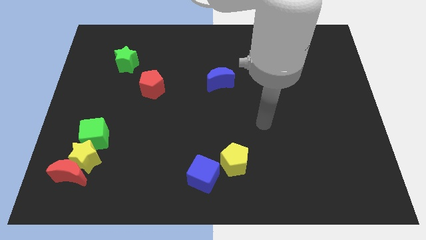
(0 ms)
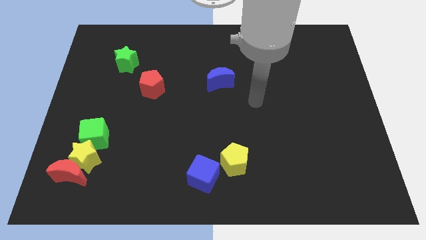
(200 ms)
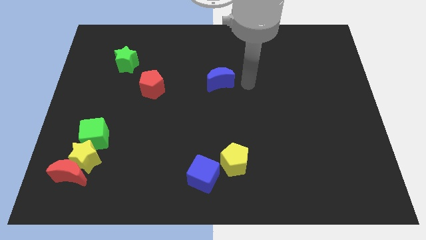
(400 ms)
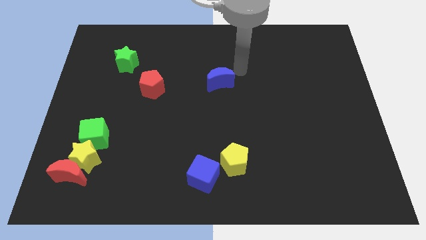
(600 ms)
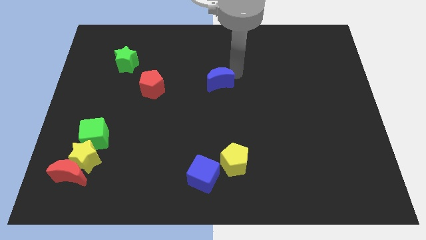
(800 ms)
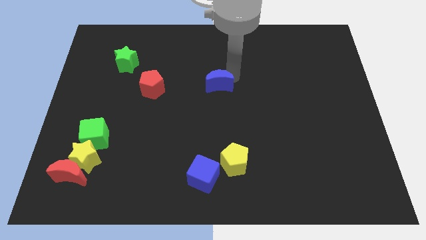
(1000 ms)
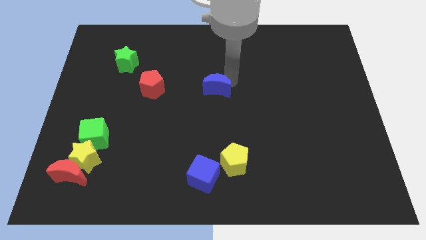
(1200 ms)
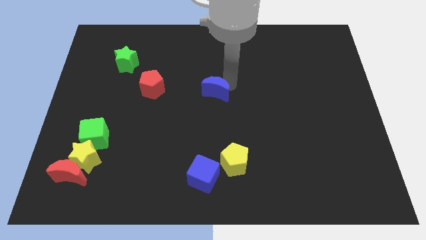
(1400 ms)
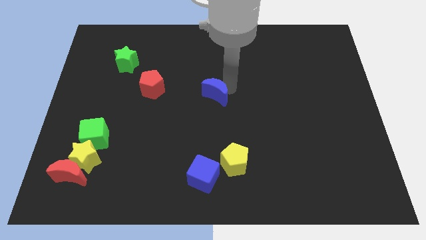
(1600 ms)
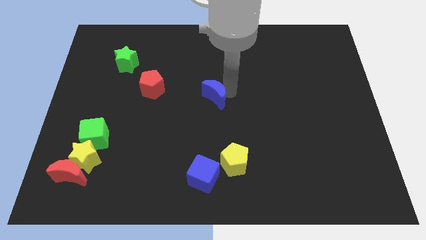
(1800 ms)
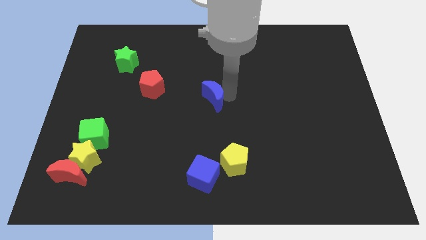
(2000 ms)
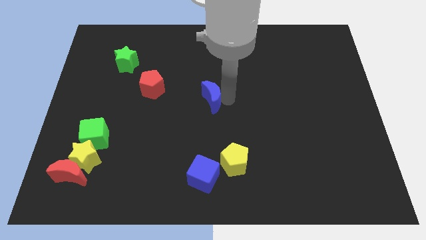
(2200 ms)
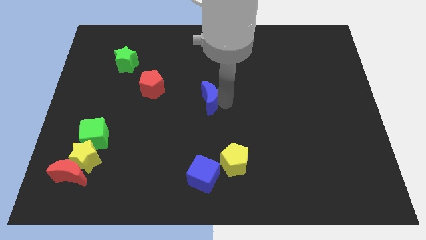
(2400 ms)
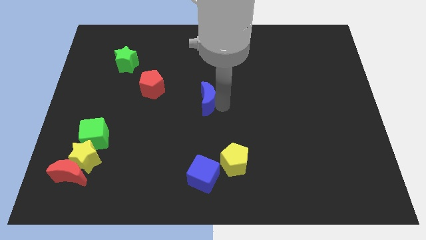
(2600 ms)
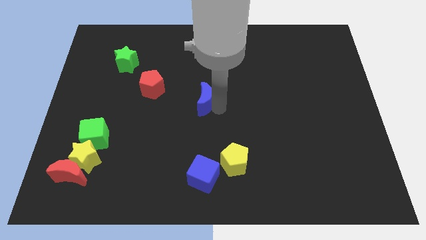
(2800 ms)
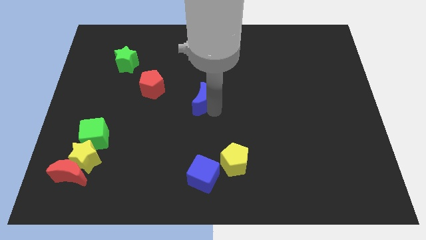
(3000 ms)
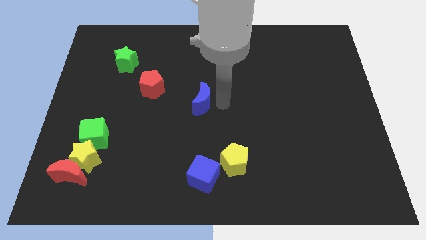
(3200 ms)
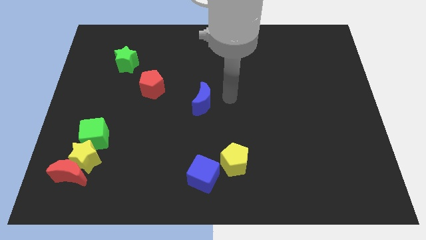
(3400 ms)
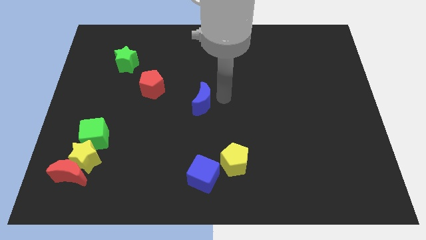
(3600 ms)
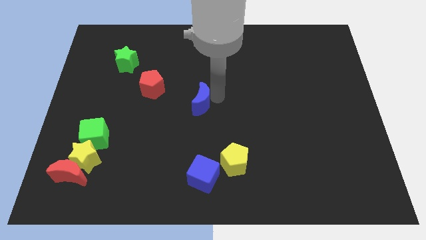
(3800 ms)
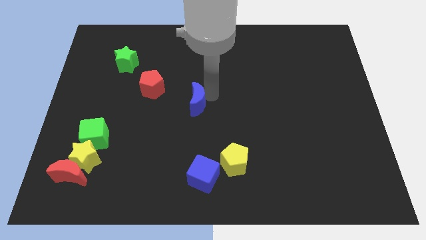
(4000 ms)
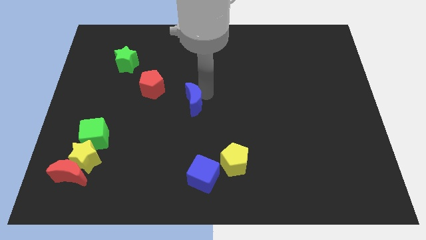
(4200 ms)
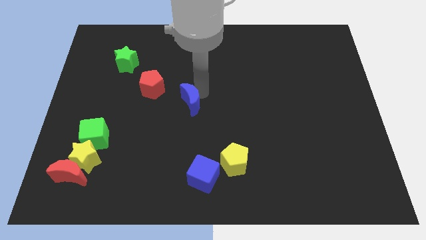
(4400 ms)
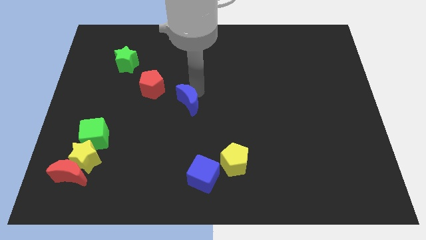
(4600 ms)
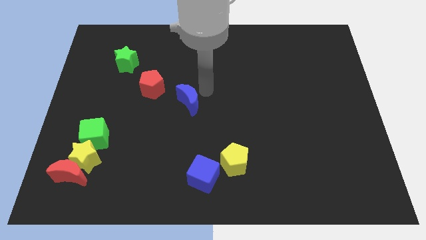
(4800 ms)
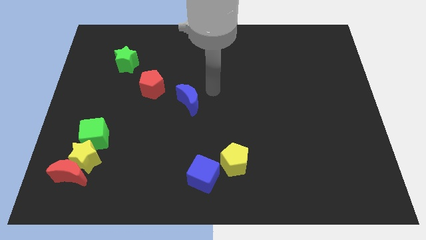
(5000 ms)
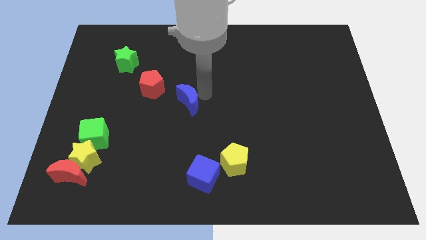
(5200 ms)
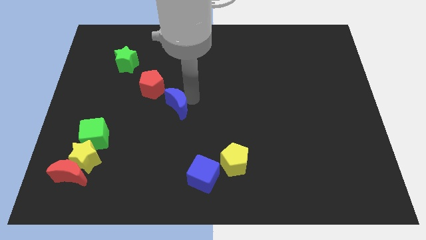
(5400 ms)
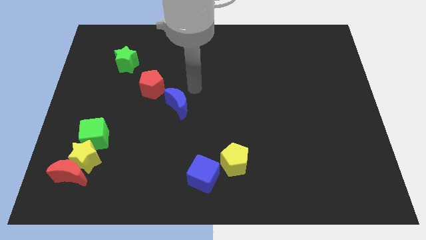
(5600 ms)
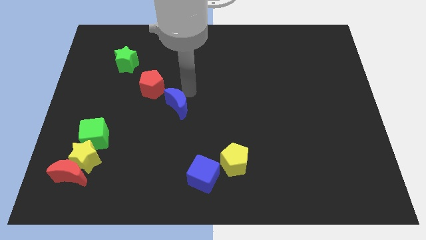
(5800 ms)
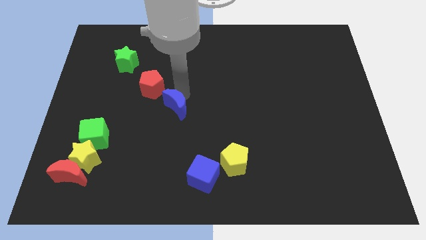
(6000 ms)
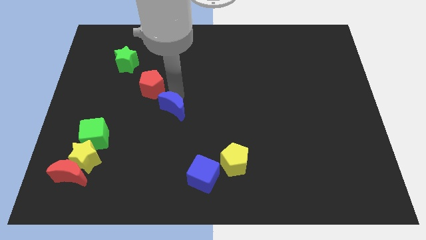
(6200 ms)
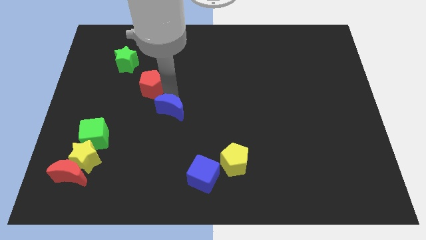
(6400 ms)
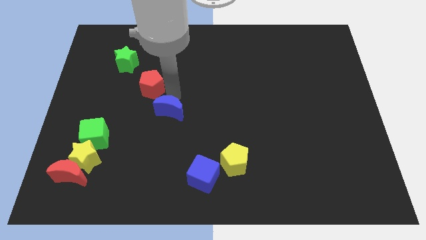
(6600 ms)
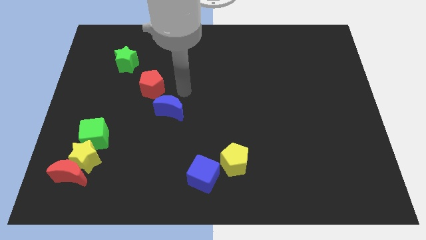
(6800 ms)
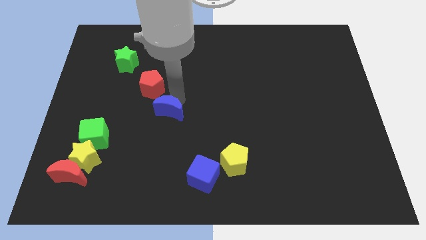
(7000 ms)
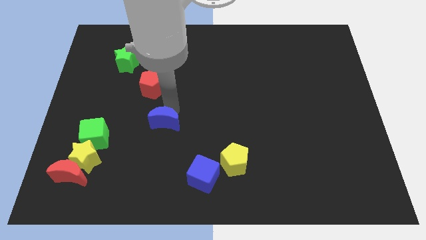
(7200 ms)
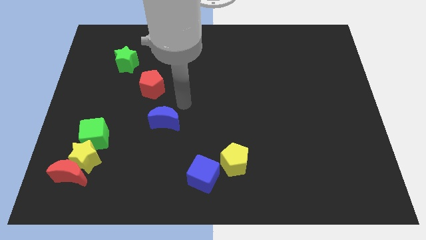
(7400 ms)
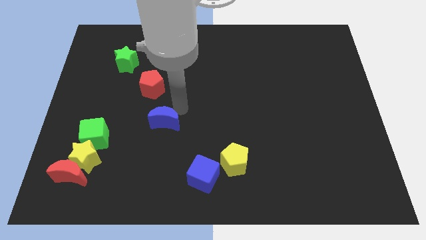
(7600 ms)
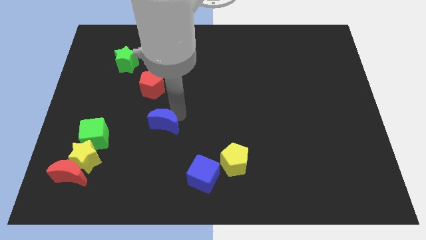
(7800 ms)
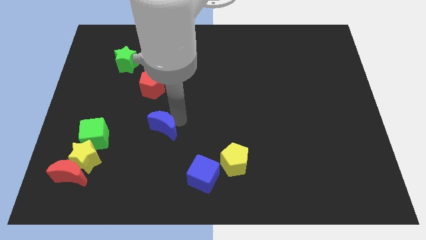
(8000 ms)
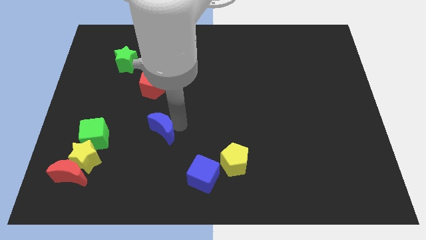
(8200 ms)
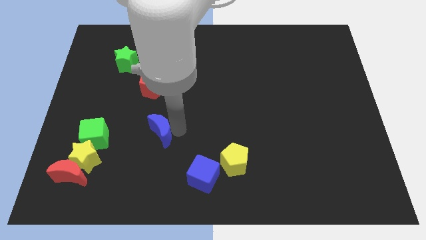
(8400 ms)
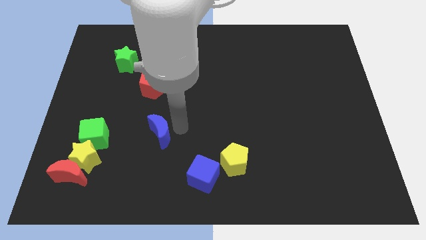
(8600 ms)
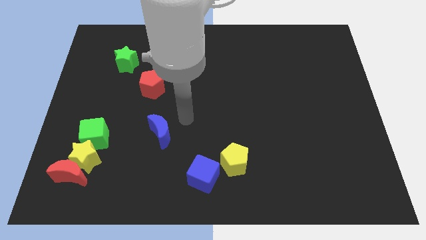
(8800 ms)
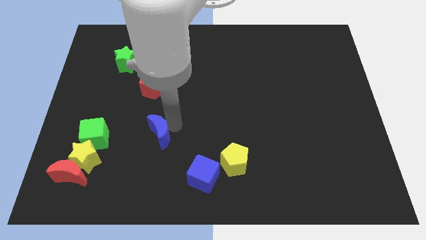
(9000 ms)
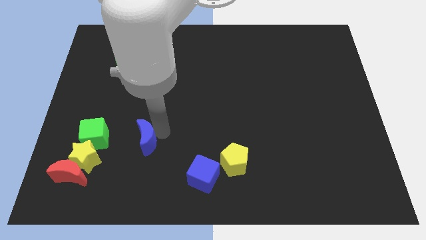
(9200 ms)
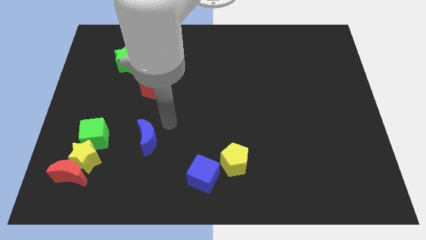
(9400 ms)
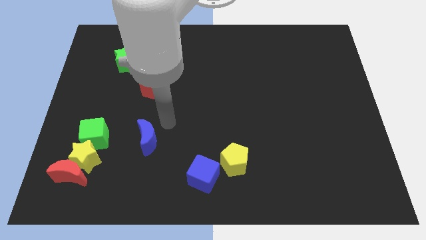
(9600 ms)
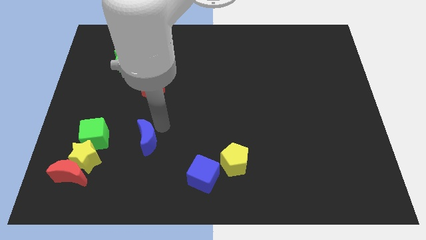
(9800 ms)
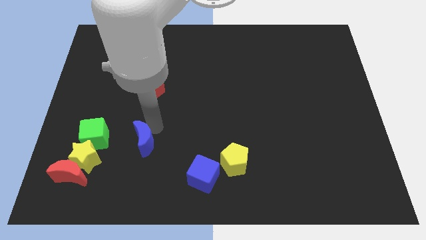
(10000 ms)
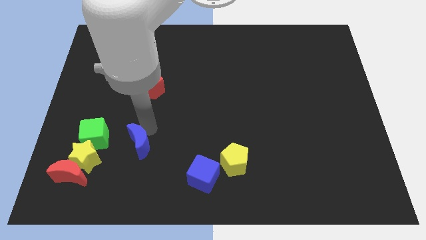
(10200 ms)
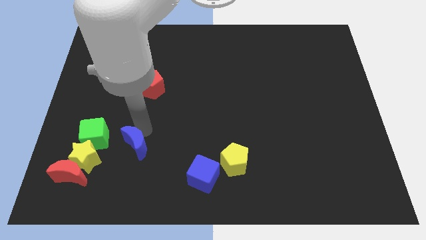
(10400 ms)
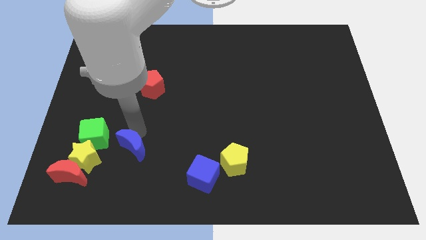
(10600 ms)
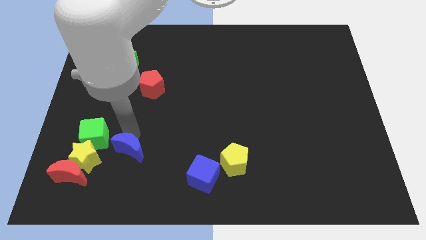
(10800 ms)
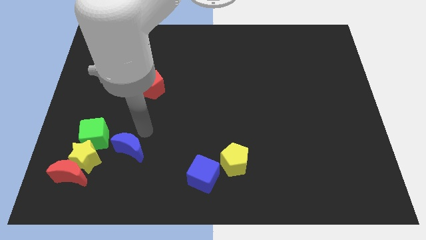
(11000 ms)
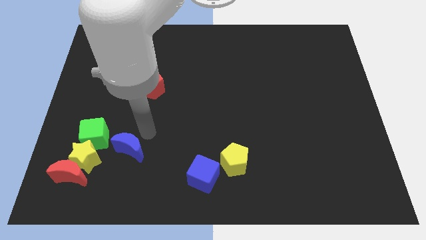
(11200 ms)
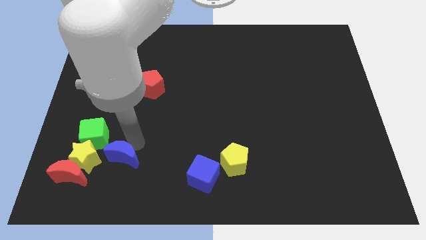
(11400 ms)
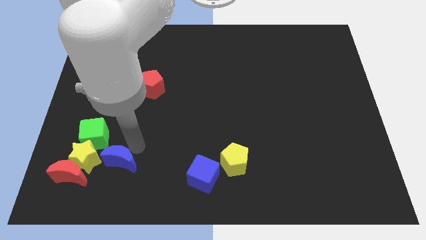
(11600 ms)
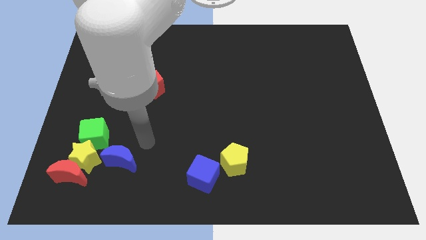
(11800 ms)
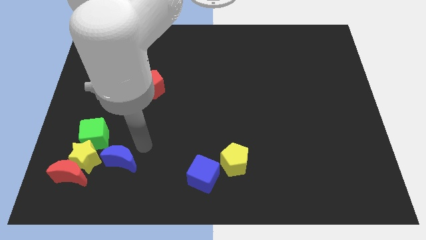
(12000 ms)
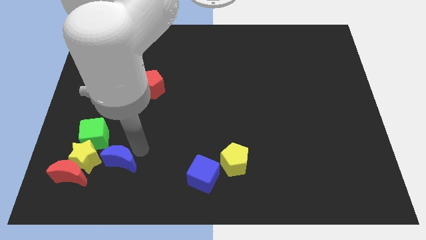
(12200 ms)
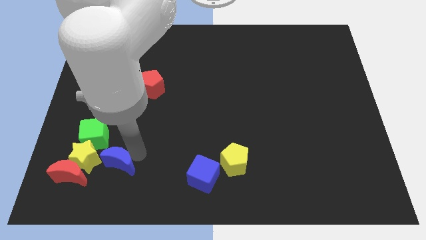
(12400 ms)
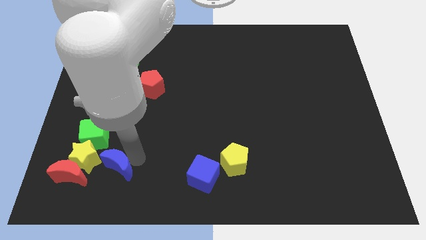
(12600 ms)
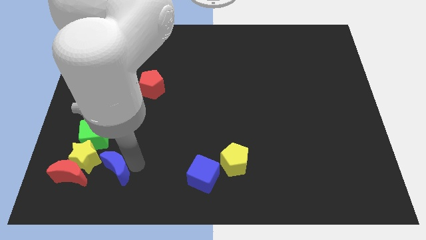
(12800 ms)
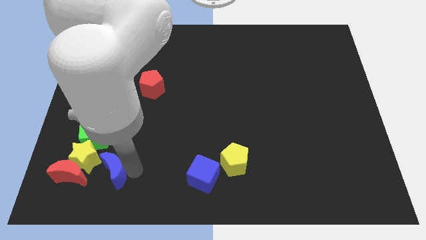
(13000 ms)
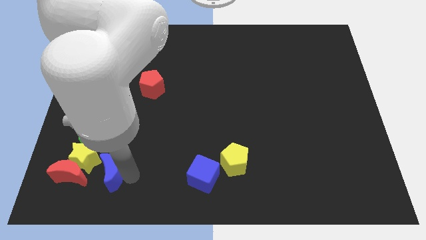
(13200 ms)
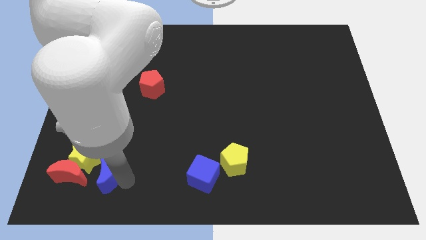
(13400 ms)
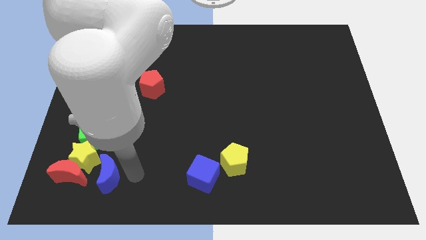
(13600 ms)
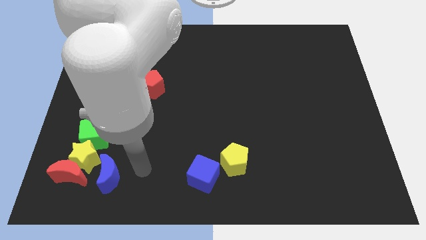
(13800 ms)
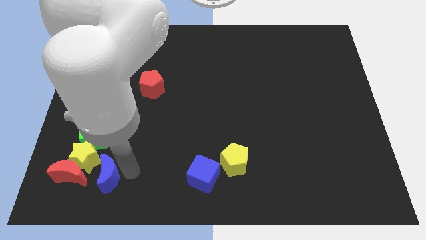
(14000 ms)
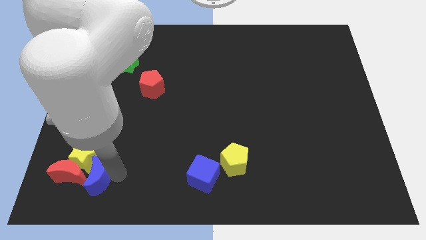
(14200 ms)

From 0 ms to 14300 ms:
slide the blue moon close to the red moon

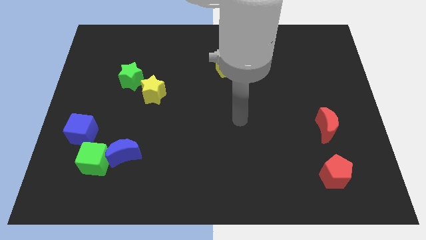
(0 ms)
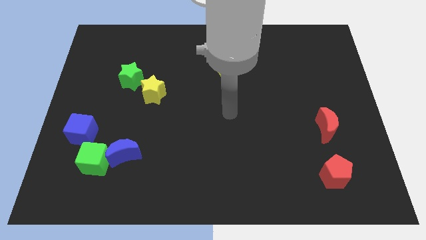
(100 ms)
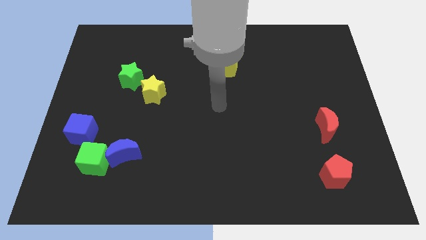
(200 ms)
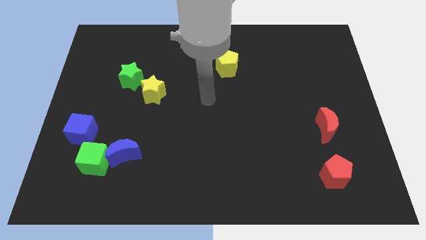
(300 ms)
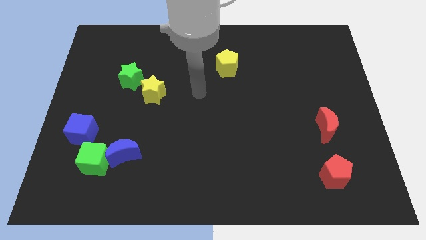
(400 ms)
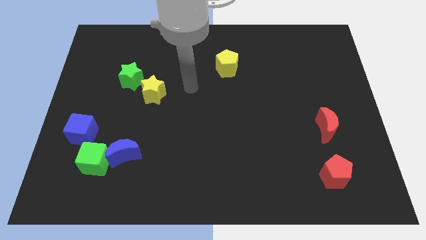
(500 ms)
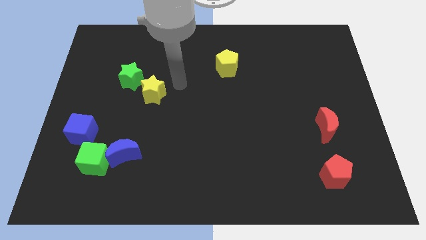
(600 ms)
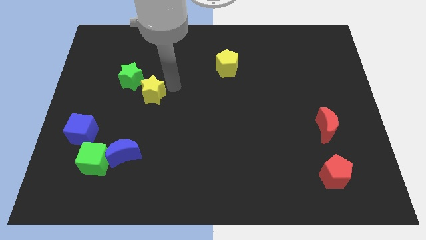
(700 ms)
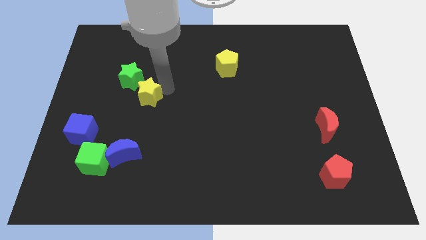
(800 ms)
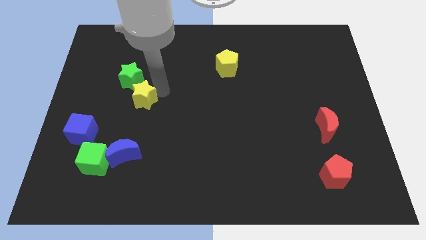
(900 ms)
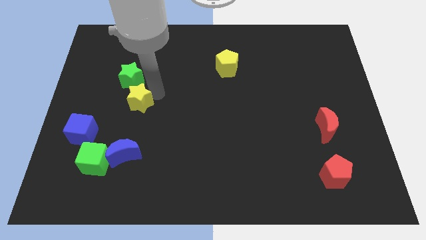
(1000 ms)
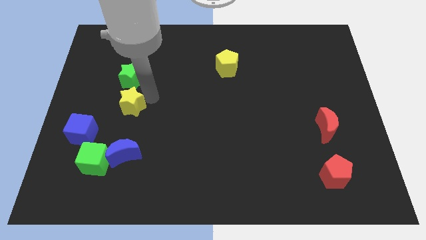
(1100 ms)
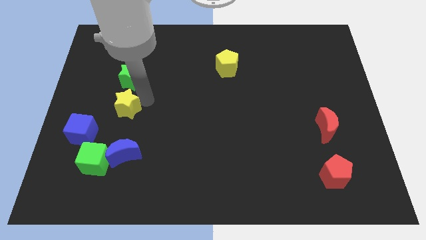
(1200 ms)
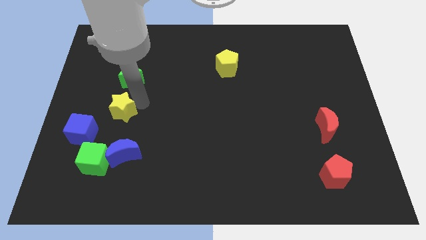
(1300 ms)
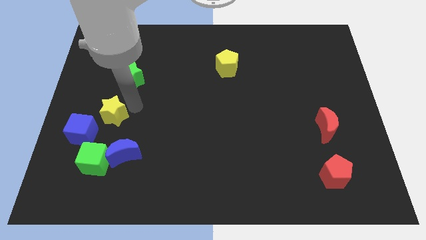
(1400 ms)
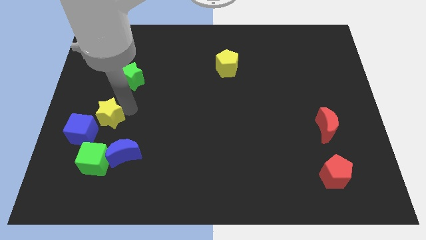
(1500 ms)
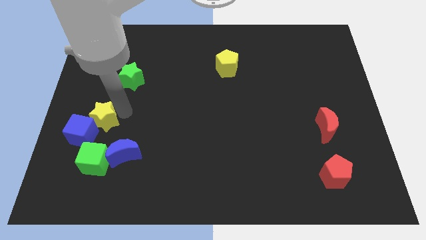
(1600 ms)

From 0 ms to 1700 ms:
put the yellow star next to the blue cube

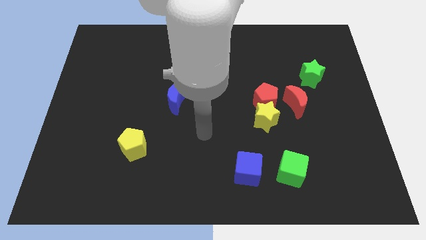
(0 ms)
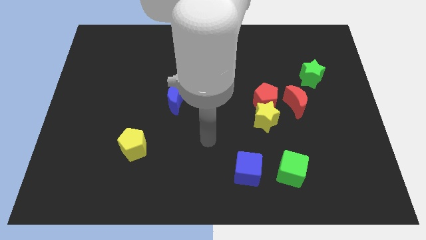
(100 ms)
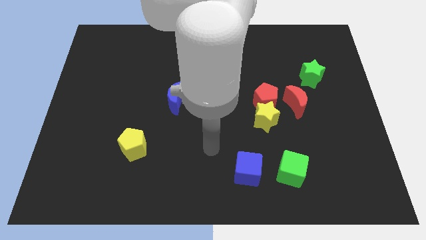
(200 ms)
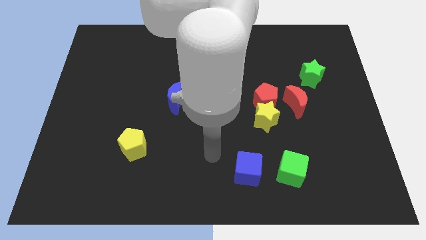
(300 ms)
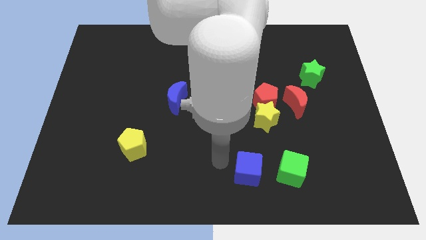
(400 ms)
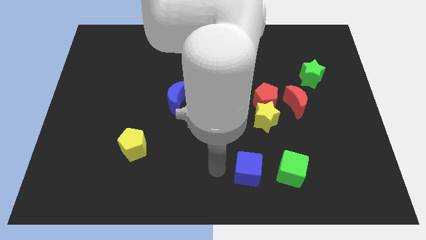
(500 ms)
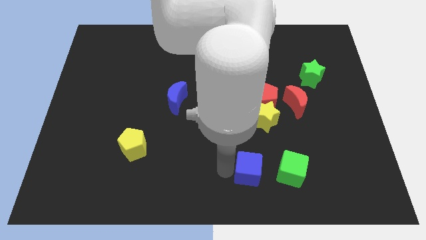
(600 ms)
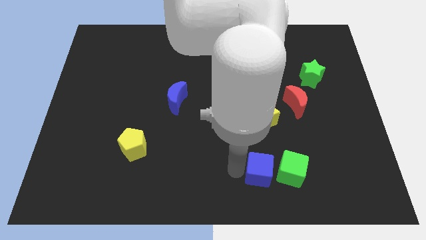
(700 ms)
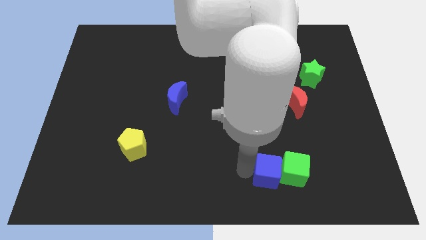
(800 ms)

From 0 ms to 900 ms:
move the blue cube towards the green cube
